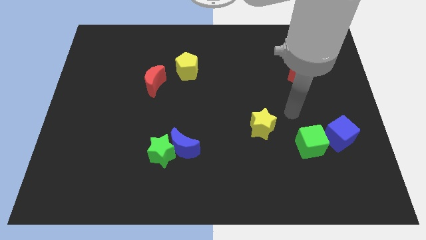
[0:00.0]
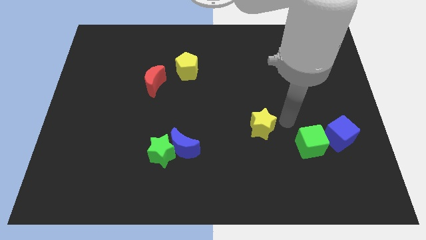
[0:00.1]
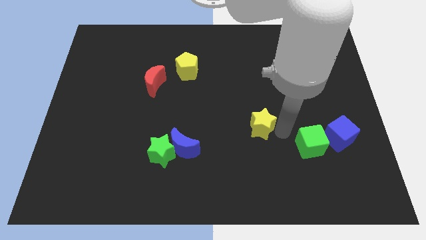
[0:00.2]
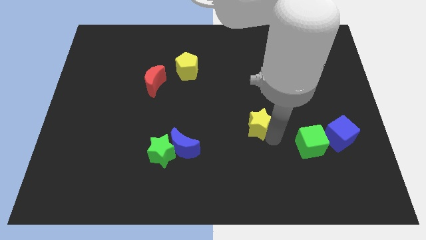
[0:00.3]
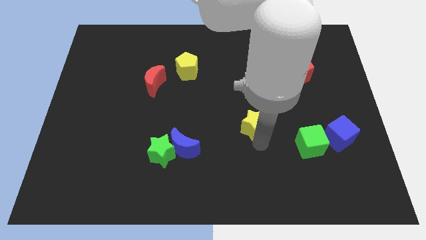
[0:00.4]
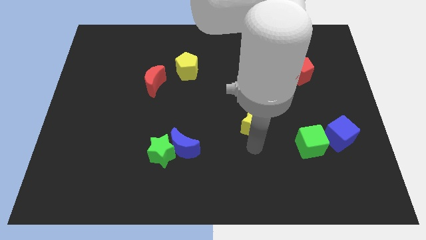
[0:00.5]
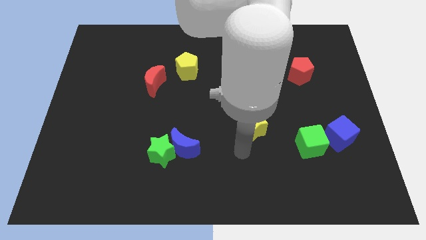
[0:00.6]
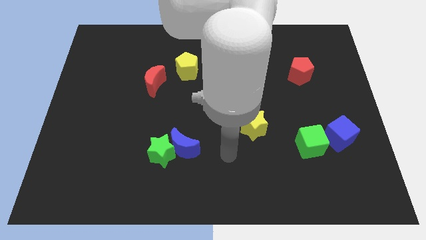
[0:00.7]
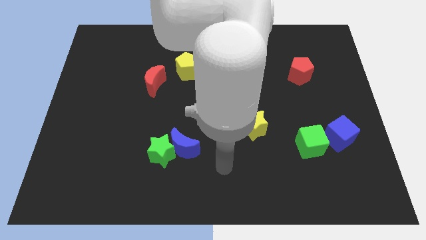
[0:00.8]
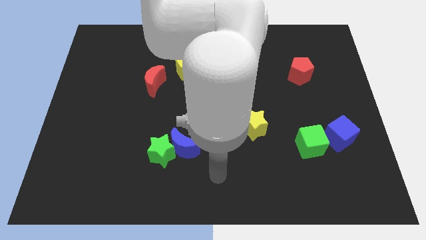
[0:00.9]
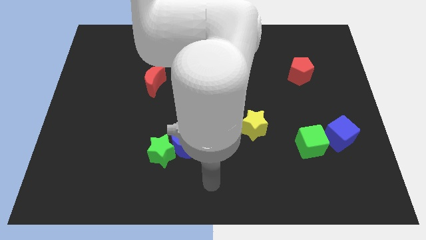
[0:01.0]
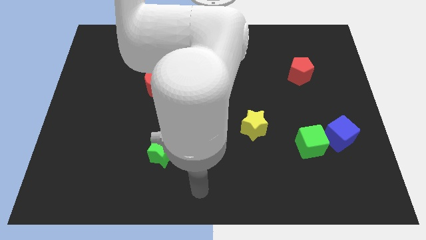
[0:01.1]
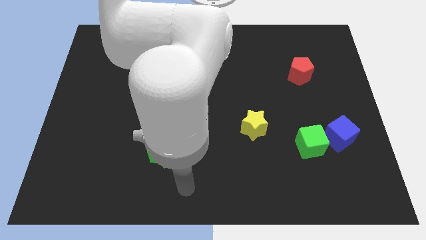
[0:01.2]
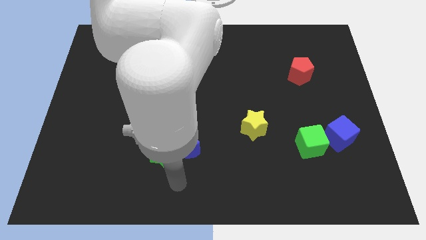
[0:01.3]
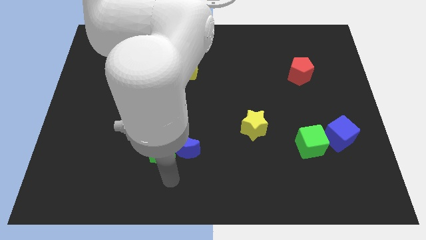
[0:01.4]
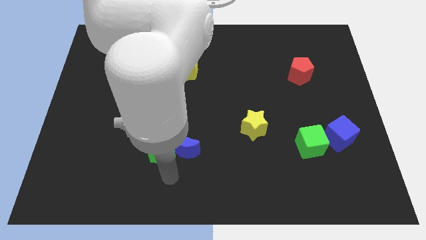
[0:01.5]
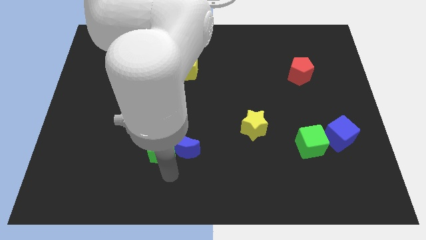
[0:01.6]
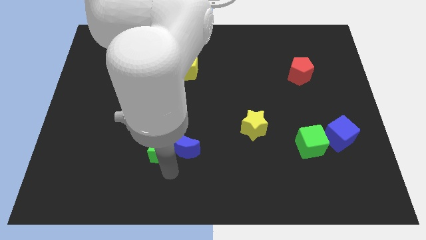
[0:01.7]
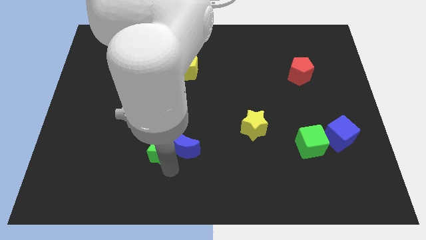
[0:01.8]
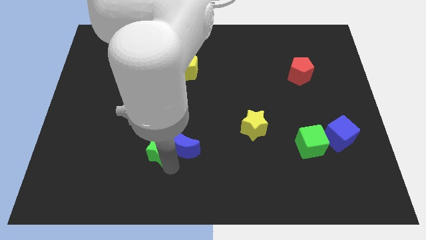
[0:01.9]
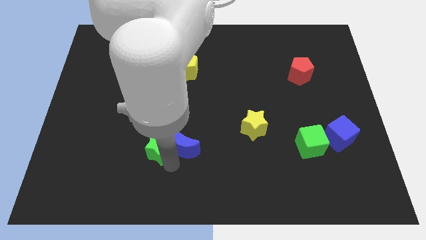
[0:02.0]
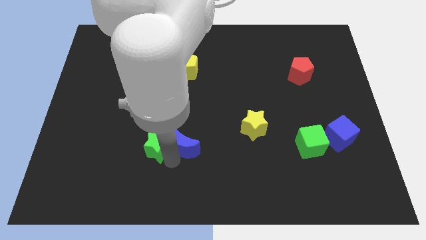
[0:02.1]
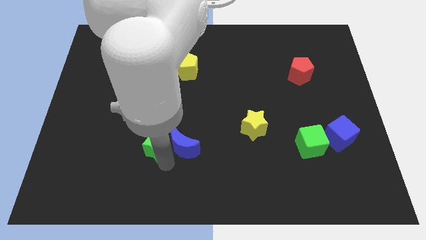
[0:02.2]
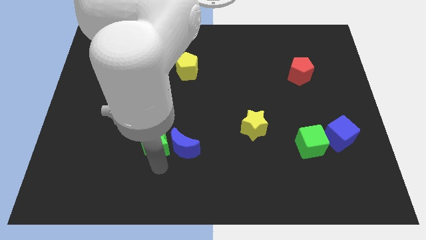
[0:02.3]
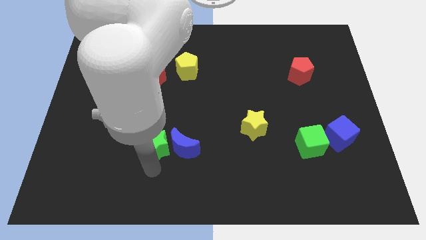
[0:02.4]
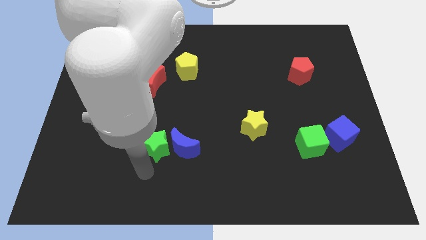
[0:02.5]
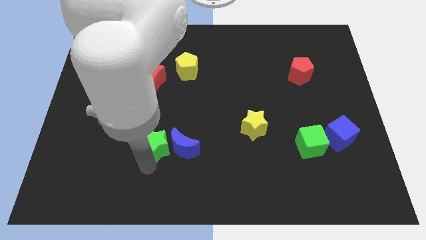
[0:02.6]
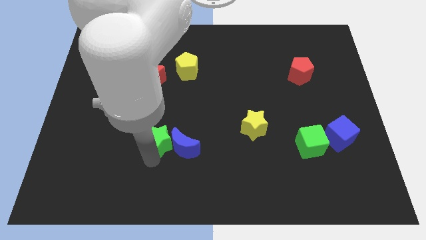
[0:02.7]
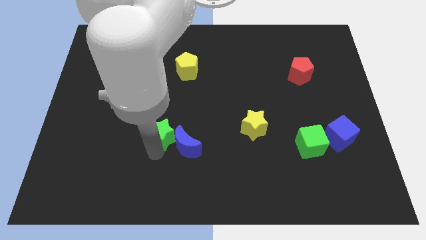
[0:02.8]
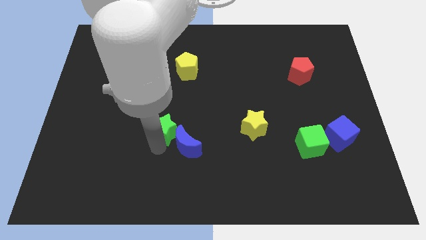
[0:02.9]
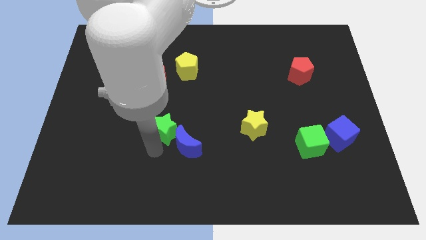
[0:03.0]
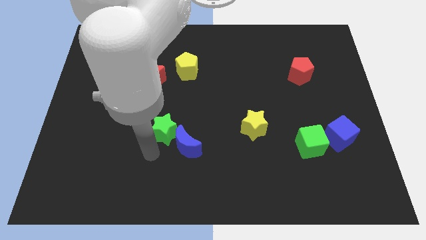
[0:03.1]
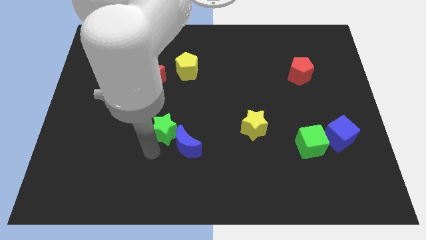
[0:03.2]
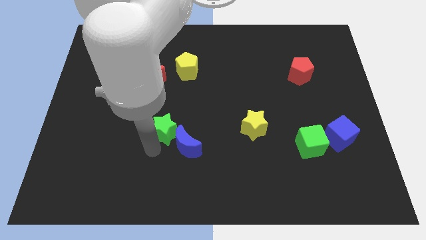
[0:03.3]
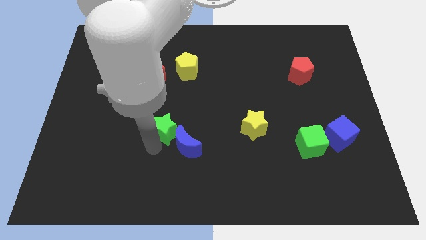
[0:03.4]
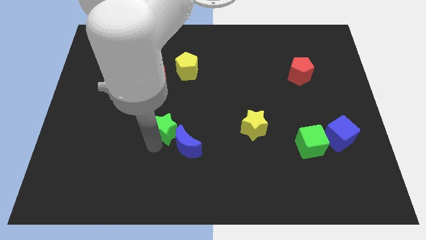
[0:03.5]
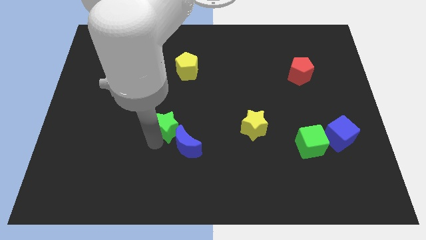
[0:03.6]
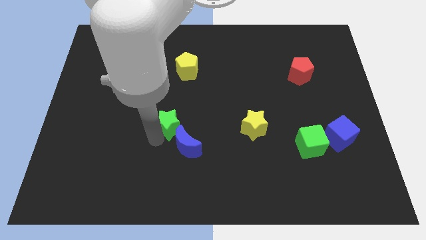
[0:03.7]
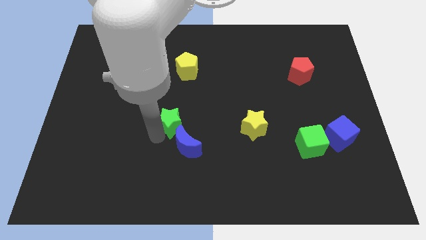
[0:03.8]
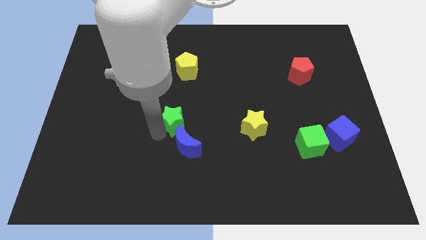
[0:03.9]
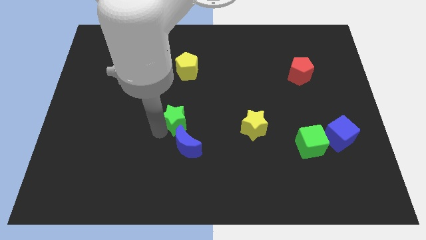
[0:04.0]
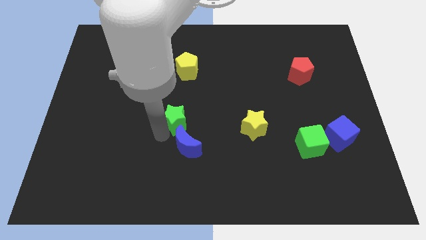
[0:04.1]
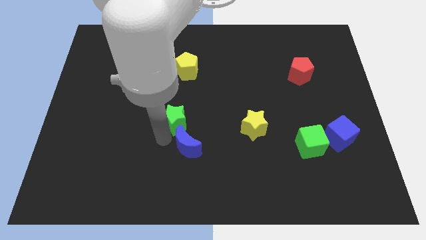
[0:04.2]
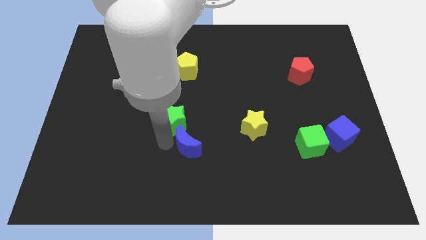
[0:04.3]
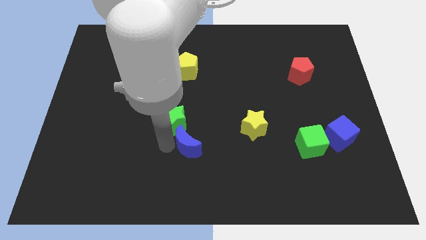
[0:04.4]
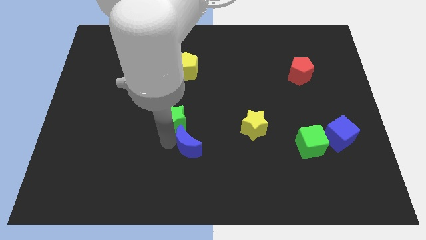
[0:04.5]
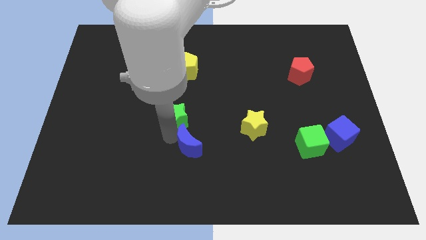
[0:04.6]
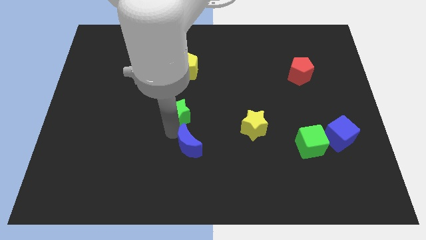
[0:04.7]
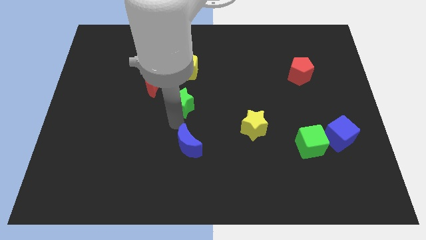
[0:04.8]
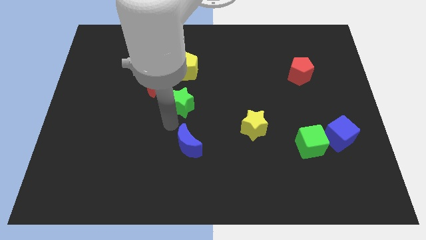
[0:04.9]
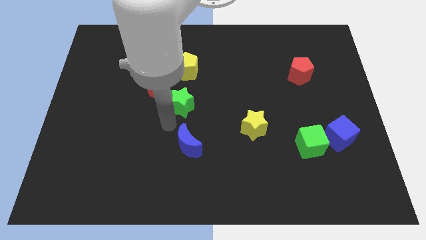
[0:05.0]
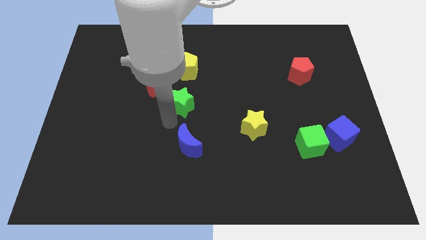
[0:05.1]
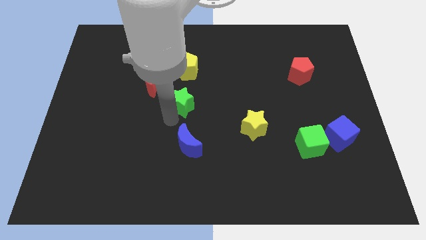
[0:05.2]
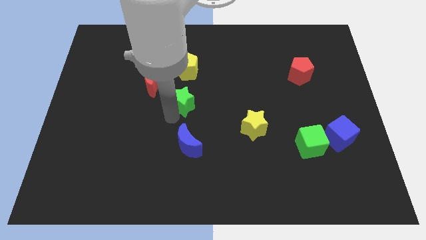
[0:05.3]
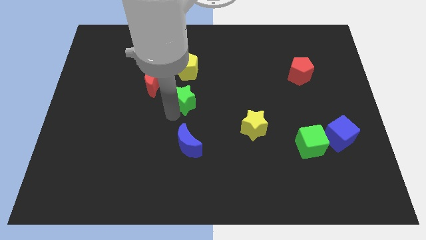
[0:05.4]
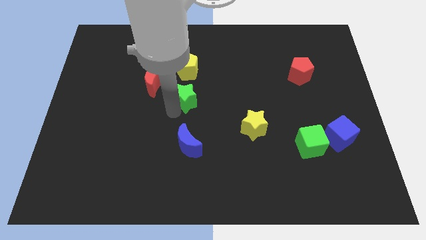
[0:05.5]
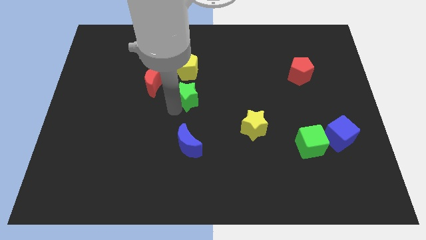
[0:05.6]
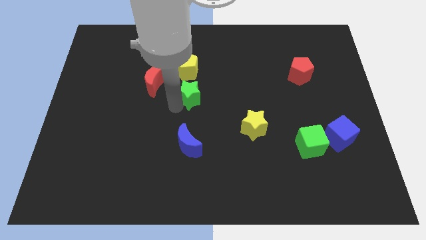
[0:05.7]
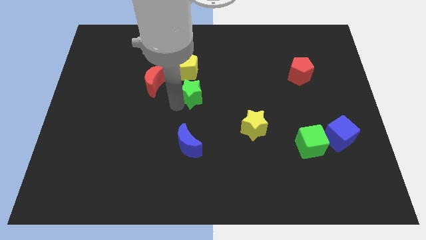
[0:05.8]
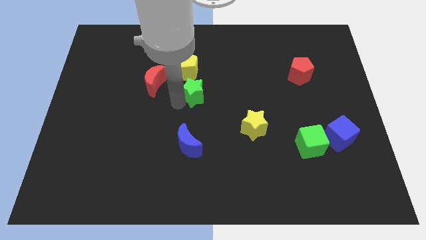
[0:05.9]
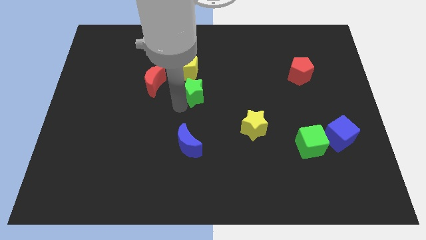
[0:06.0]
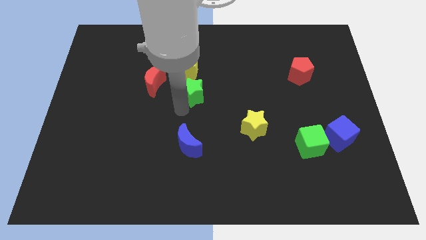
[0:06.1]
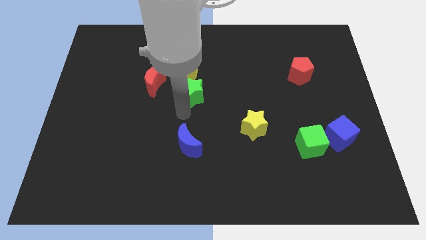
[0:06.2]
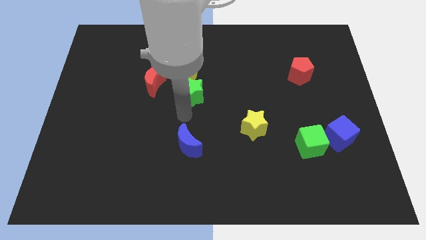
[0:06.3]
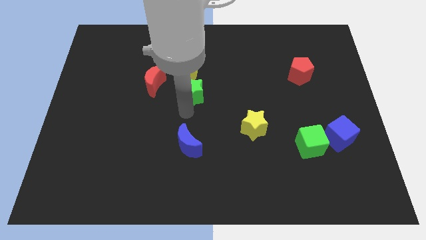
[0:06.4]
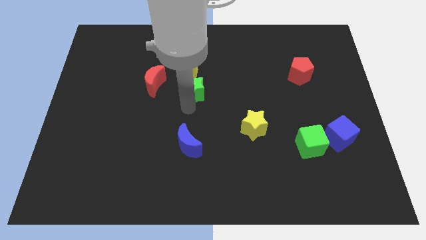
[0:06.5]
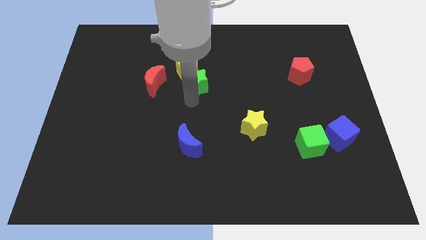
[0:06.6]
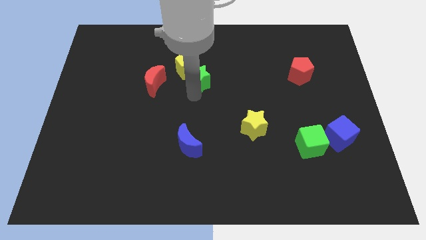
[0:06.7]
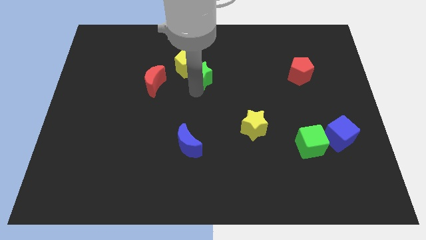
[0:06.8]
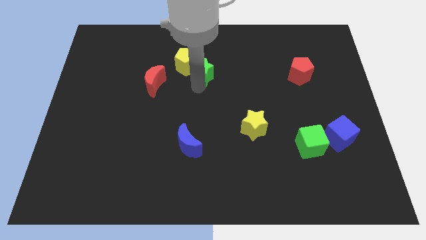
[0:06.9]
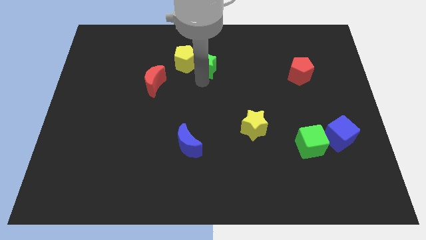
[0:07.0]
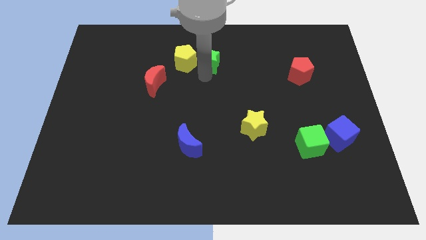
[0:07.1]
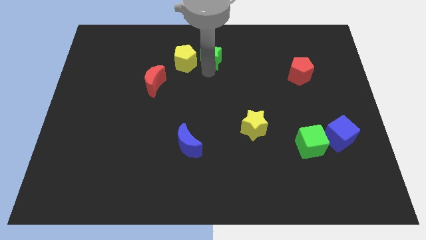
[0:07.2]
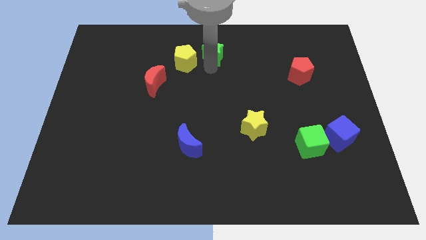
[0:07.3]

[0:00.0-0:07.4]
push the green star to the towards your base
